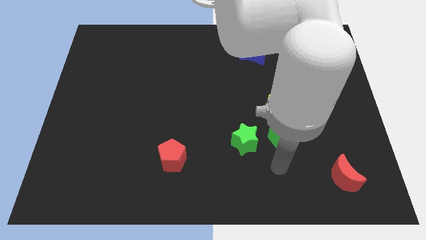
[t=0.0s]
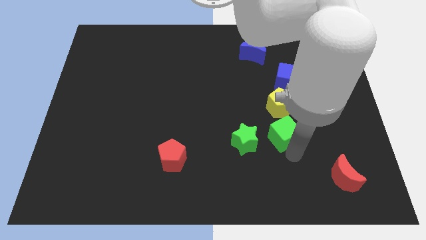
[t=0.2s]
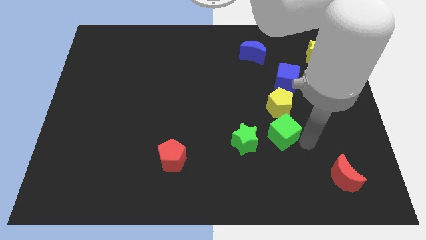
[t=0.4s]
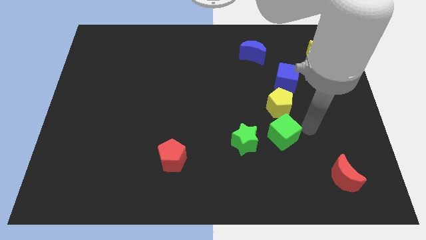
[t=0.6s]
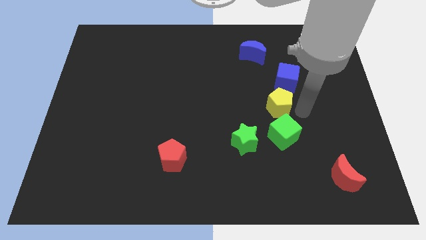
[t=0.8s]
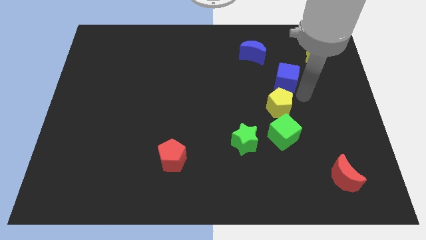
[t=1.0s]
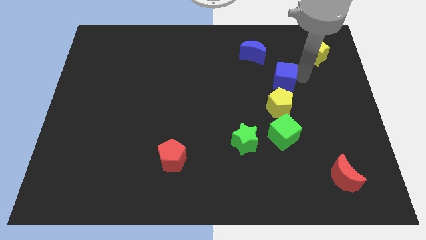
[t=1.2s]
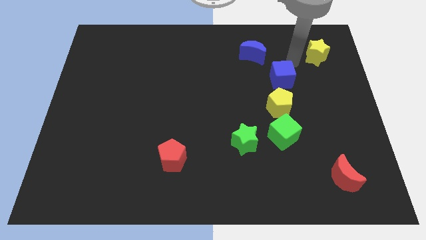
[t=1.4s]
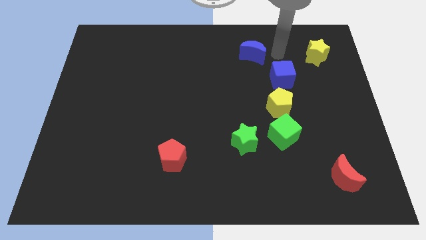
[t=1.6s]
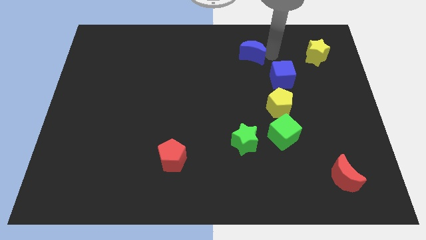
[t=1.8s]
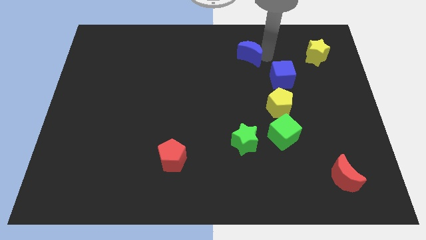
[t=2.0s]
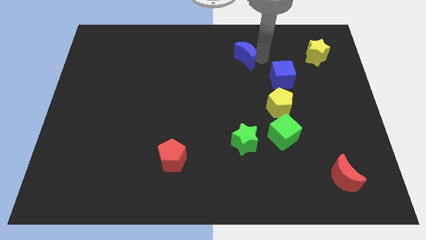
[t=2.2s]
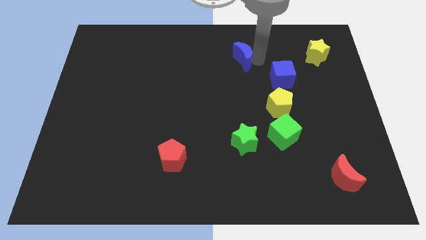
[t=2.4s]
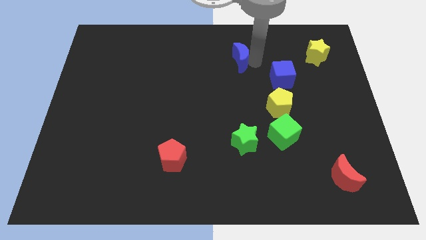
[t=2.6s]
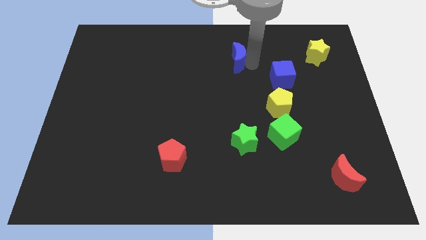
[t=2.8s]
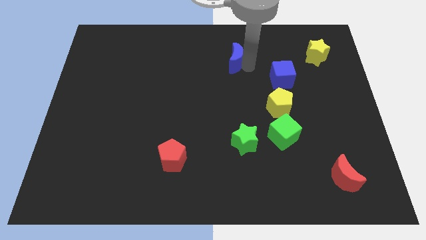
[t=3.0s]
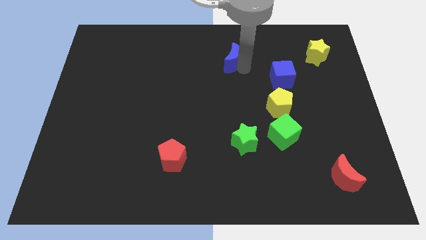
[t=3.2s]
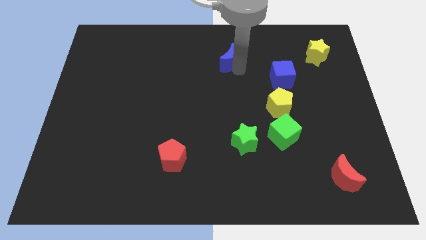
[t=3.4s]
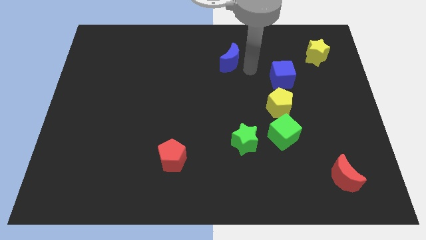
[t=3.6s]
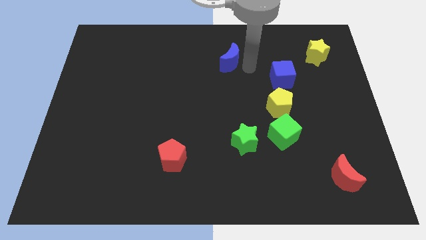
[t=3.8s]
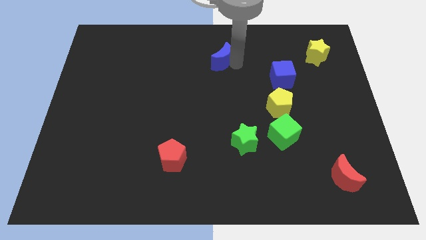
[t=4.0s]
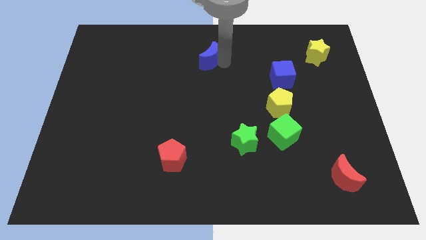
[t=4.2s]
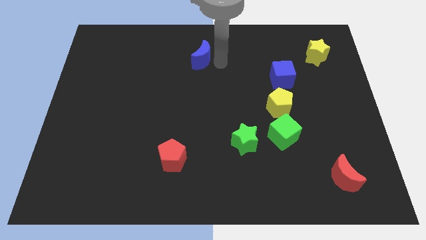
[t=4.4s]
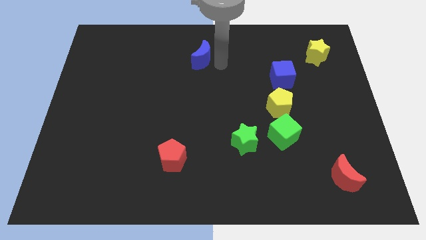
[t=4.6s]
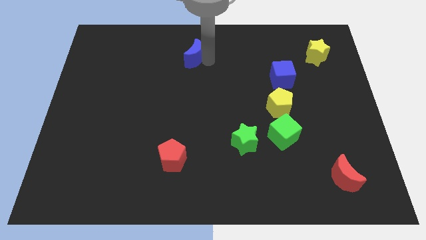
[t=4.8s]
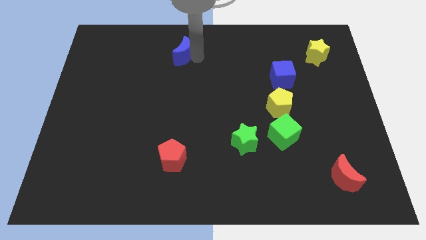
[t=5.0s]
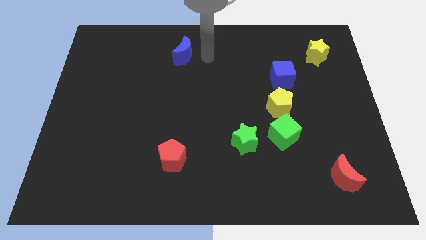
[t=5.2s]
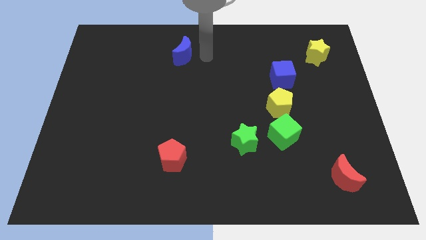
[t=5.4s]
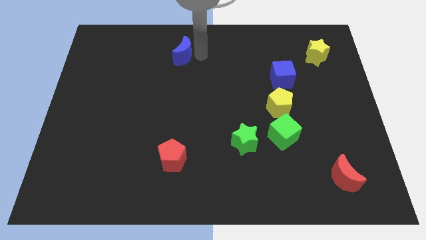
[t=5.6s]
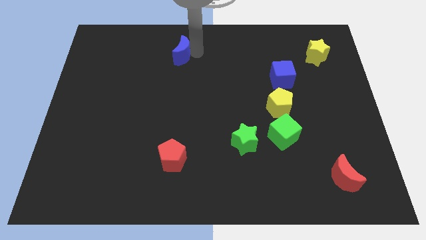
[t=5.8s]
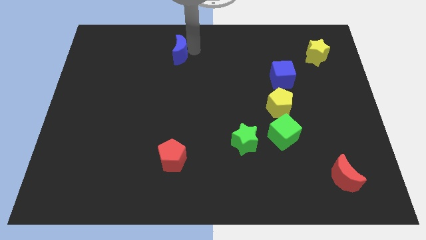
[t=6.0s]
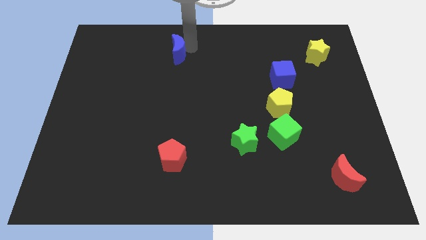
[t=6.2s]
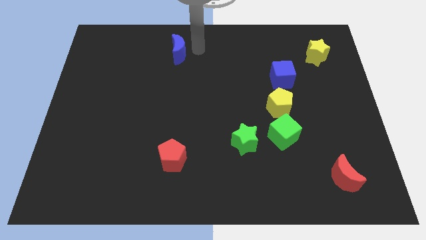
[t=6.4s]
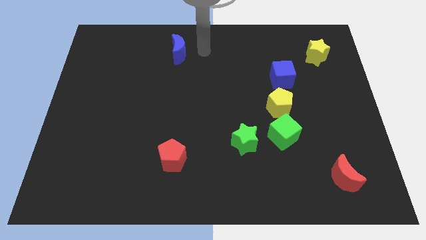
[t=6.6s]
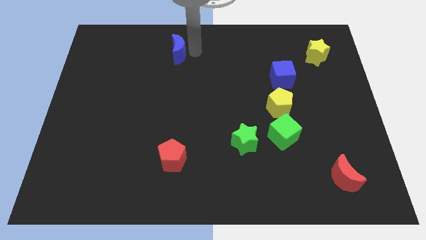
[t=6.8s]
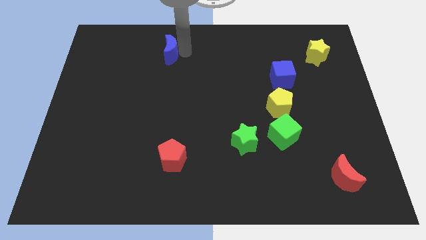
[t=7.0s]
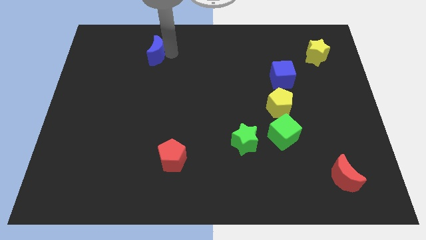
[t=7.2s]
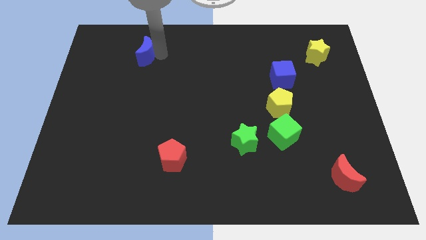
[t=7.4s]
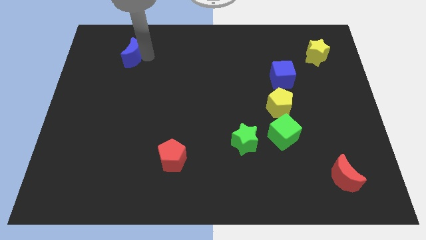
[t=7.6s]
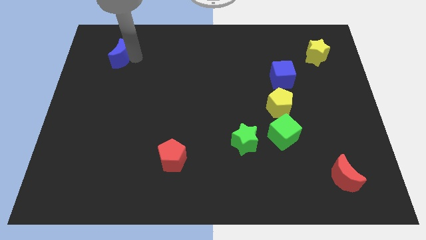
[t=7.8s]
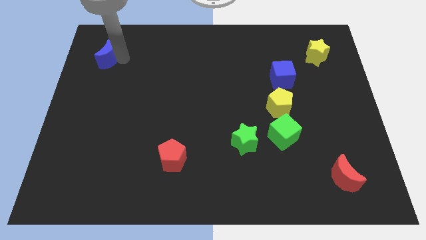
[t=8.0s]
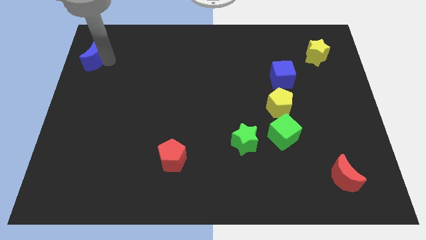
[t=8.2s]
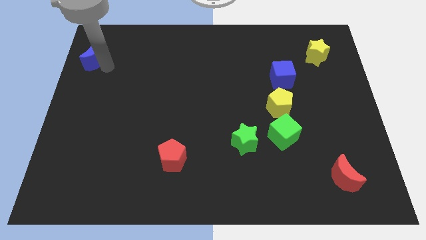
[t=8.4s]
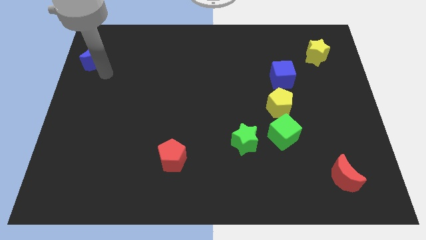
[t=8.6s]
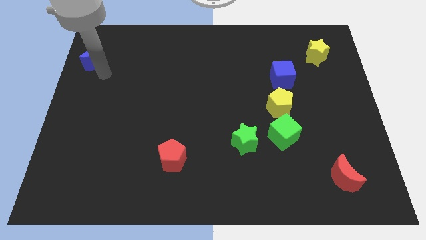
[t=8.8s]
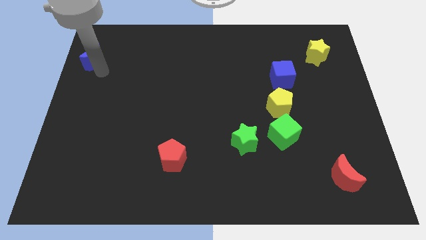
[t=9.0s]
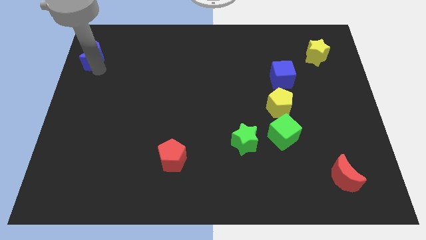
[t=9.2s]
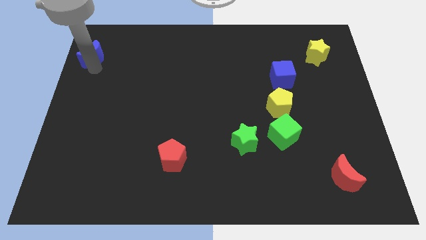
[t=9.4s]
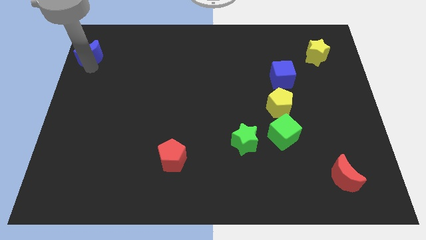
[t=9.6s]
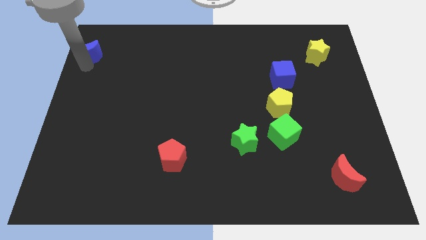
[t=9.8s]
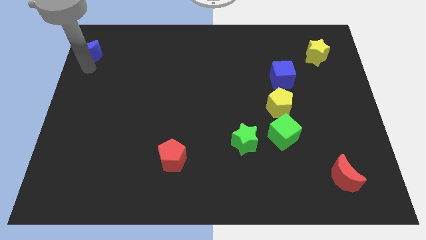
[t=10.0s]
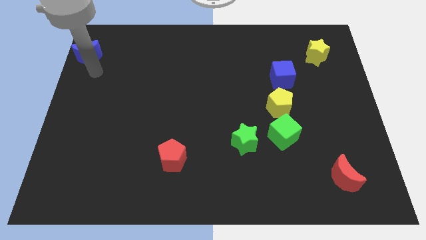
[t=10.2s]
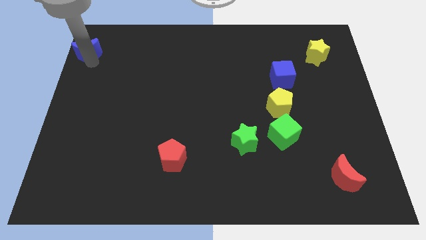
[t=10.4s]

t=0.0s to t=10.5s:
move the blue moon to the upper left corner

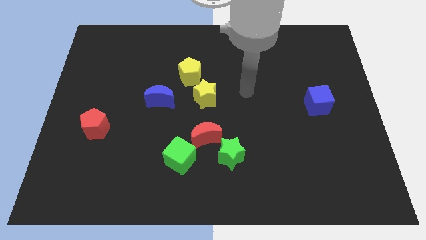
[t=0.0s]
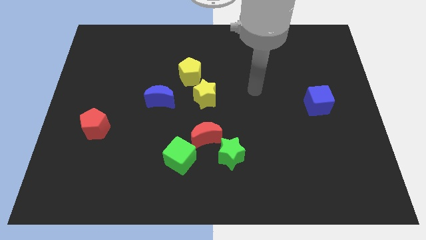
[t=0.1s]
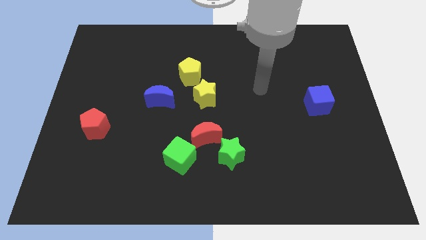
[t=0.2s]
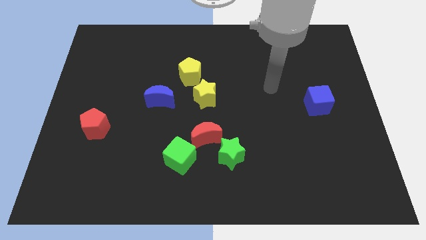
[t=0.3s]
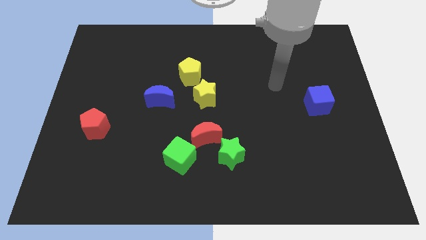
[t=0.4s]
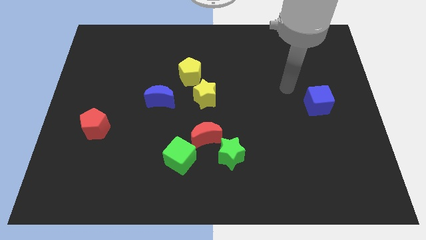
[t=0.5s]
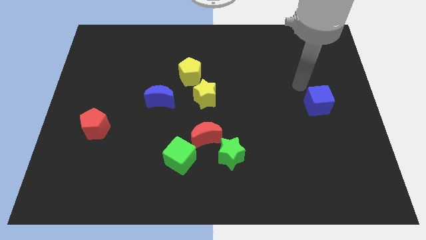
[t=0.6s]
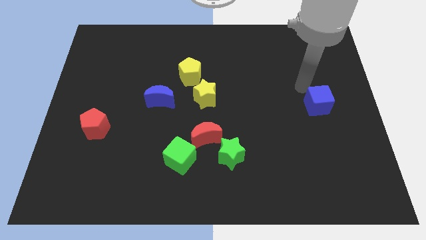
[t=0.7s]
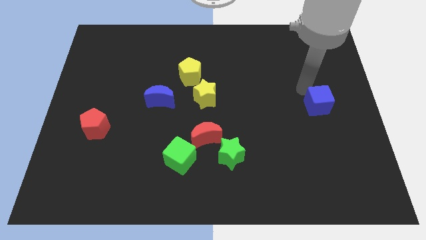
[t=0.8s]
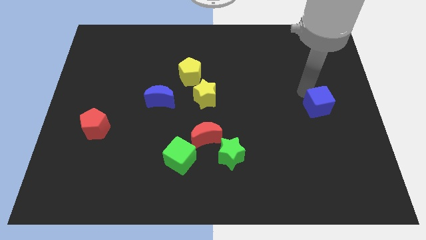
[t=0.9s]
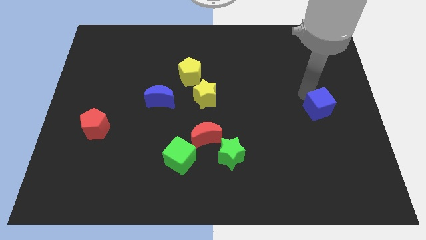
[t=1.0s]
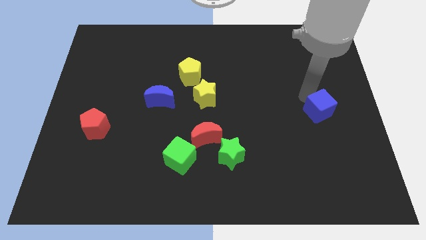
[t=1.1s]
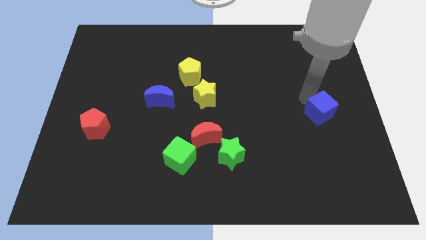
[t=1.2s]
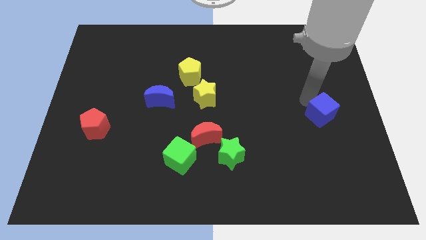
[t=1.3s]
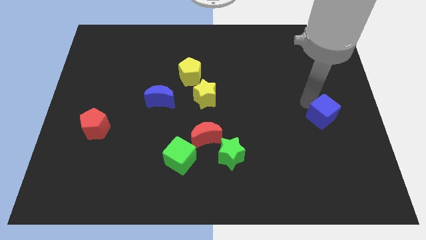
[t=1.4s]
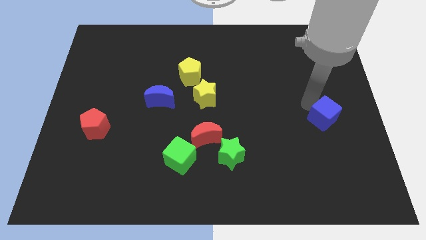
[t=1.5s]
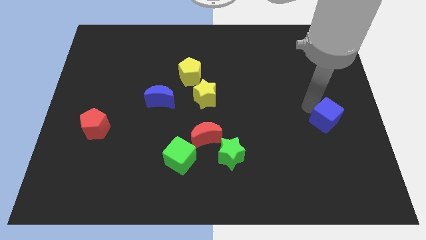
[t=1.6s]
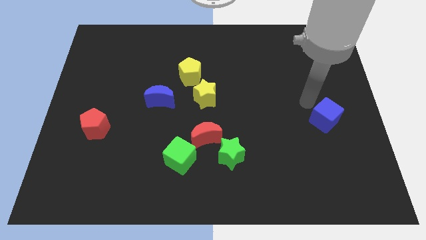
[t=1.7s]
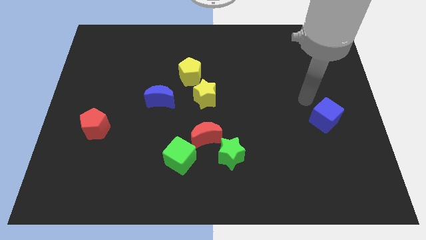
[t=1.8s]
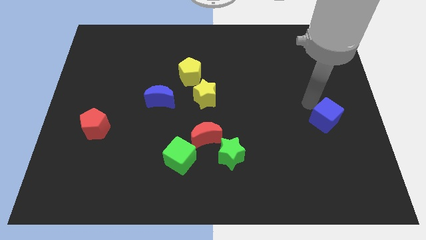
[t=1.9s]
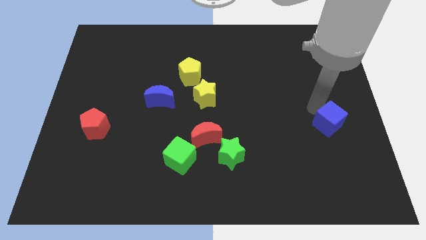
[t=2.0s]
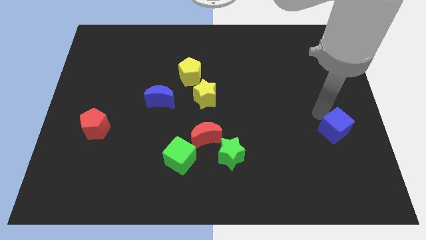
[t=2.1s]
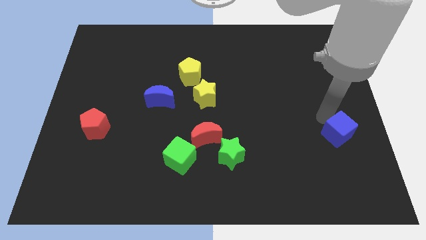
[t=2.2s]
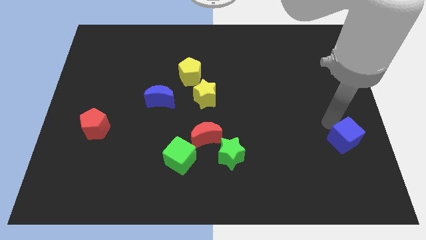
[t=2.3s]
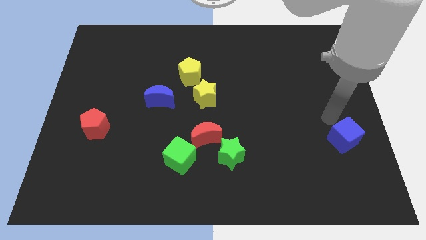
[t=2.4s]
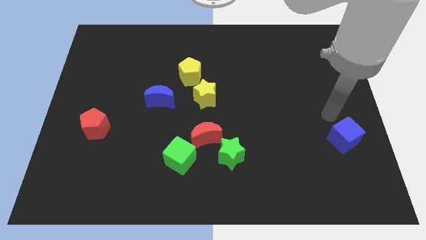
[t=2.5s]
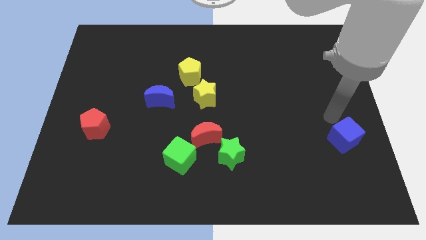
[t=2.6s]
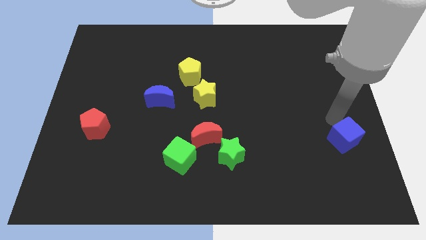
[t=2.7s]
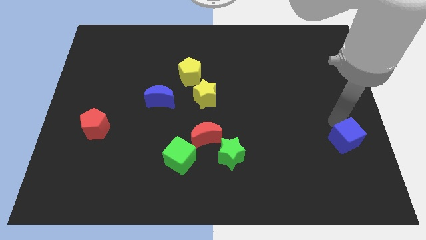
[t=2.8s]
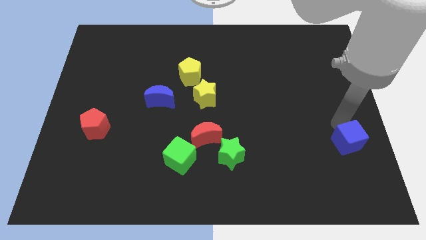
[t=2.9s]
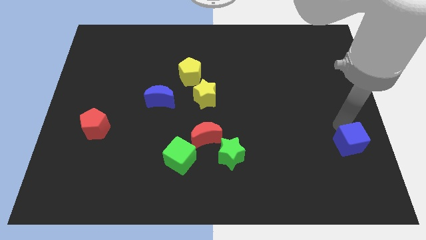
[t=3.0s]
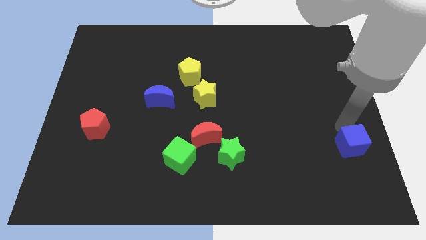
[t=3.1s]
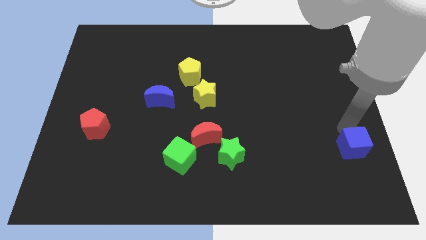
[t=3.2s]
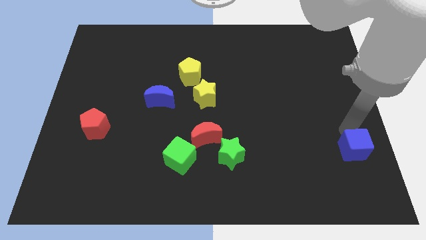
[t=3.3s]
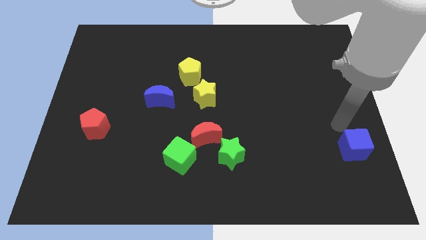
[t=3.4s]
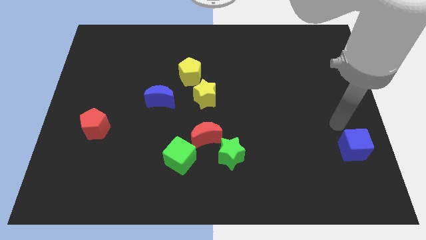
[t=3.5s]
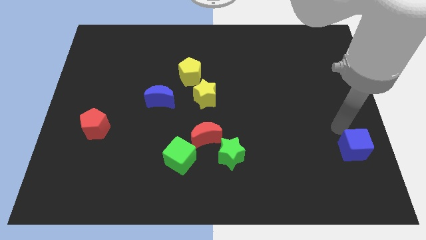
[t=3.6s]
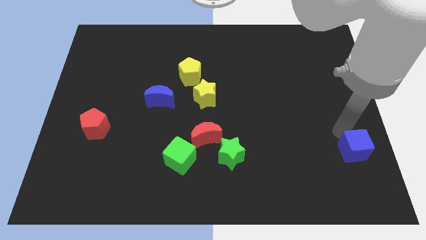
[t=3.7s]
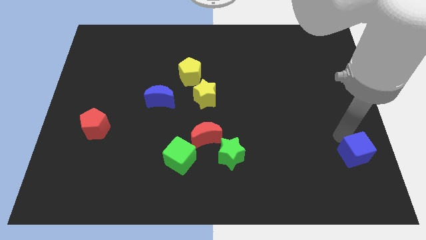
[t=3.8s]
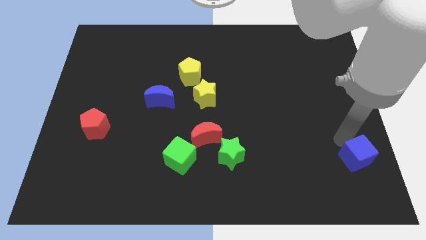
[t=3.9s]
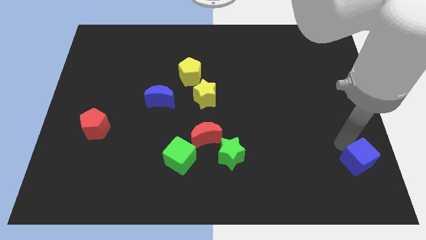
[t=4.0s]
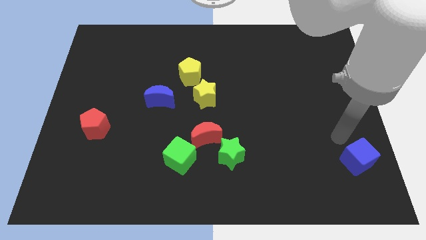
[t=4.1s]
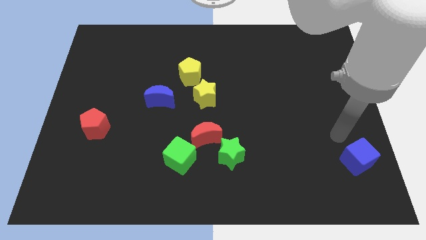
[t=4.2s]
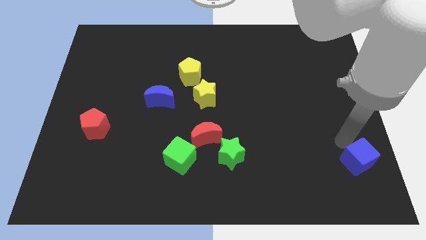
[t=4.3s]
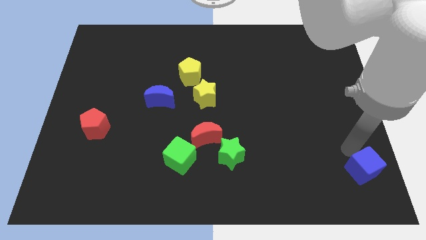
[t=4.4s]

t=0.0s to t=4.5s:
move the blue cube to the bottom right
